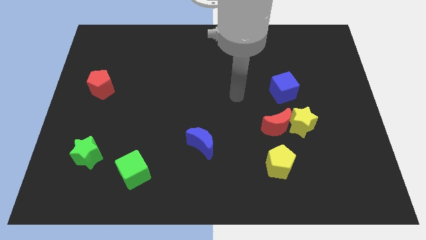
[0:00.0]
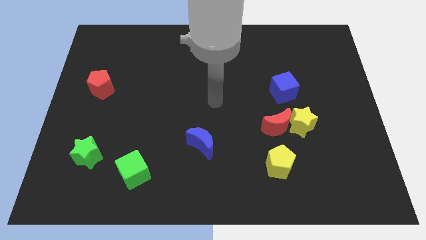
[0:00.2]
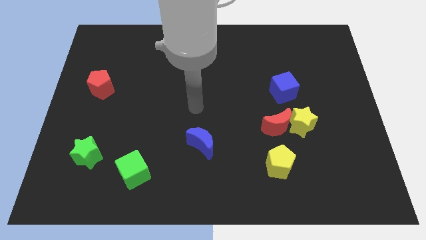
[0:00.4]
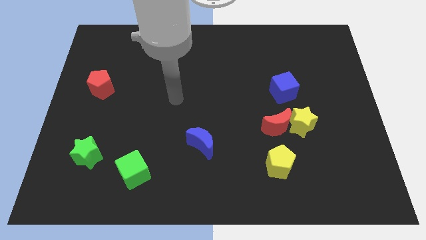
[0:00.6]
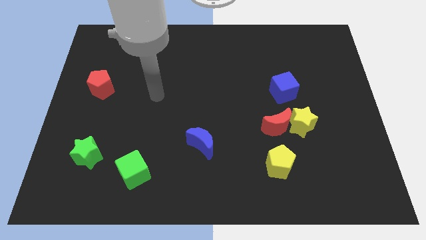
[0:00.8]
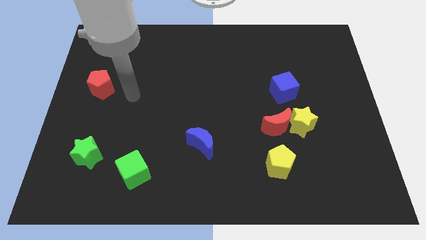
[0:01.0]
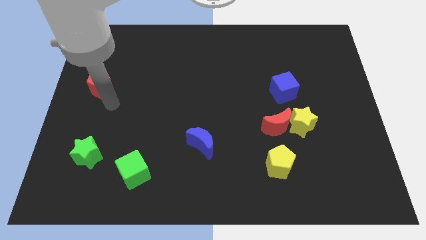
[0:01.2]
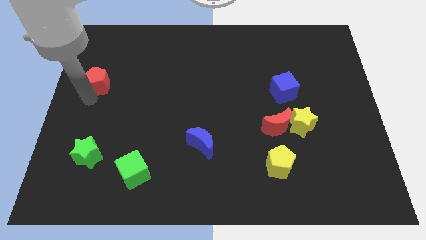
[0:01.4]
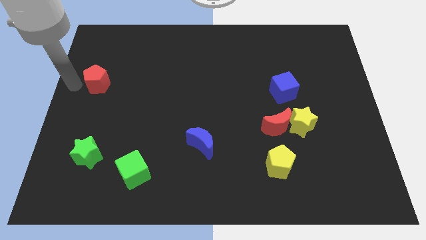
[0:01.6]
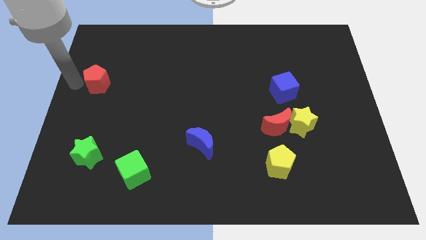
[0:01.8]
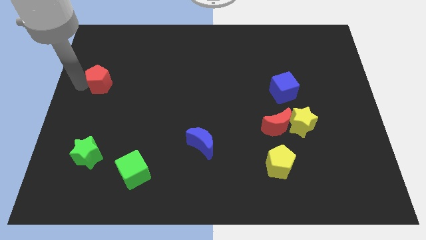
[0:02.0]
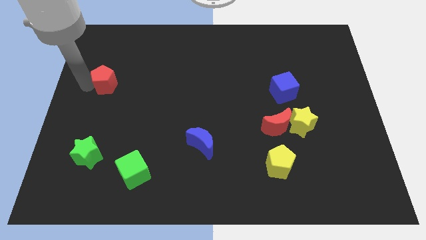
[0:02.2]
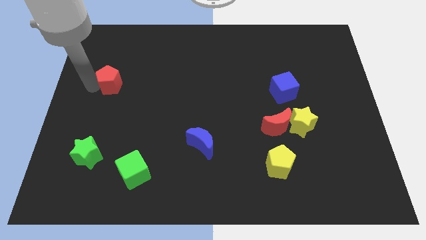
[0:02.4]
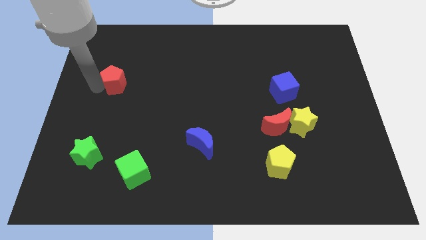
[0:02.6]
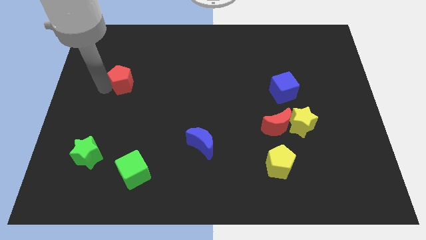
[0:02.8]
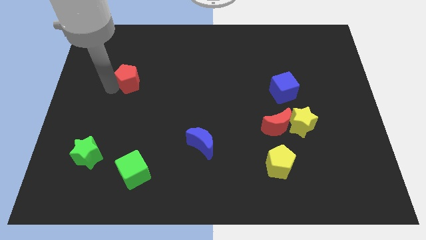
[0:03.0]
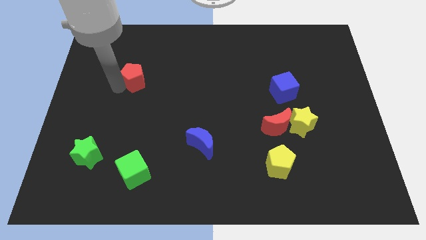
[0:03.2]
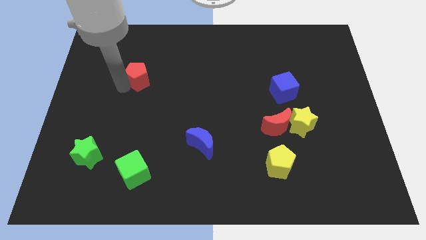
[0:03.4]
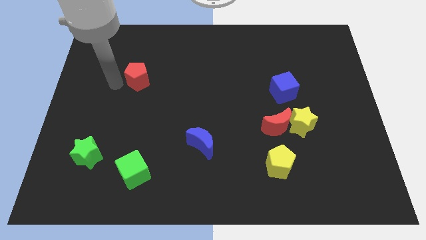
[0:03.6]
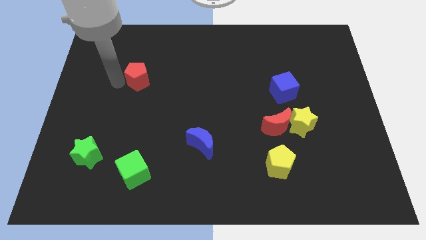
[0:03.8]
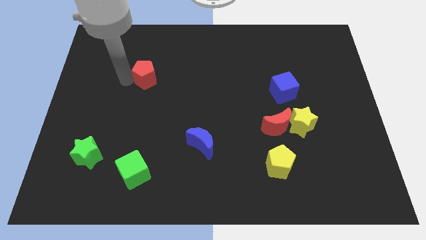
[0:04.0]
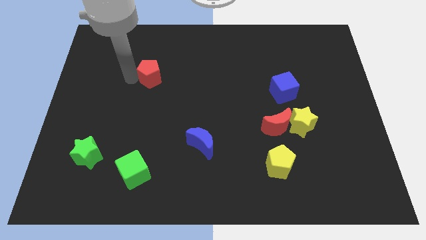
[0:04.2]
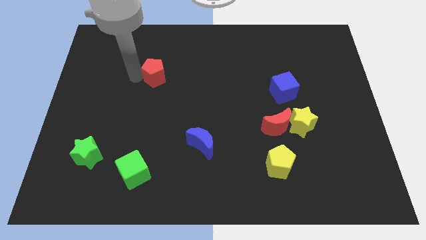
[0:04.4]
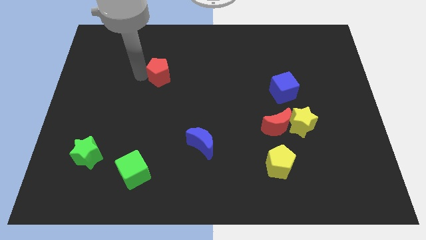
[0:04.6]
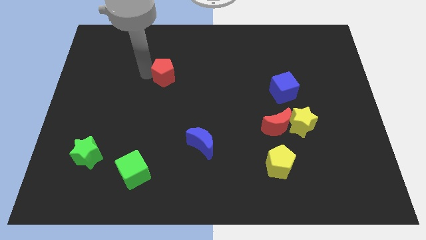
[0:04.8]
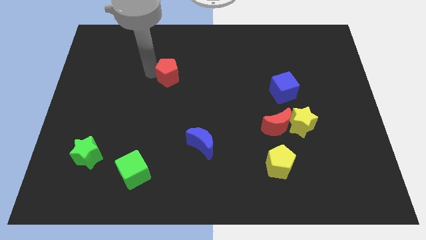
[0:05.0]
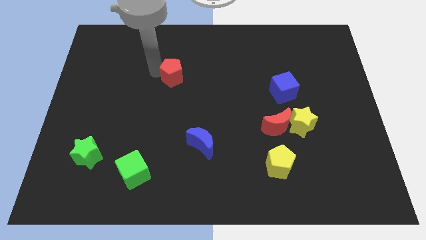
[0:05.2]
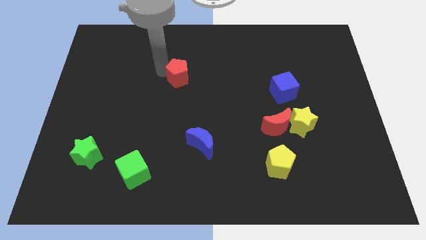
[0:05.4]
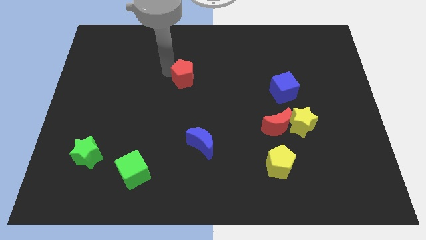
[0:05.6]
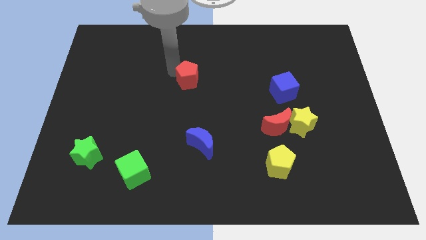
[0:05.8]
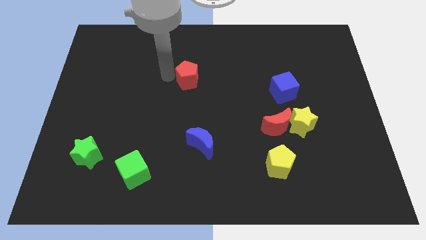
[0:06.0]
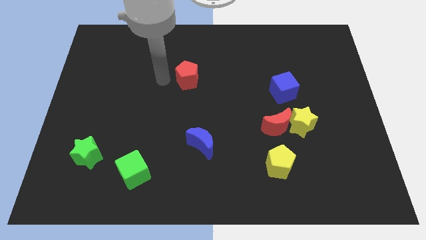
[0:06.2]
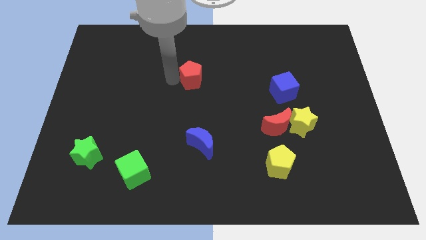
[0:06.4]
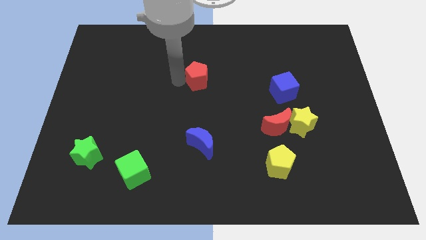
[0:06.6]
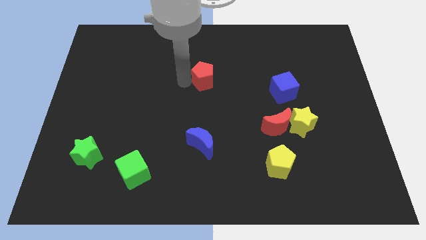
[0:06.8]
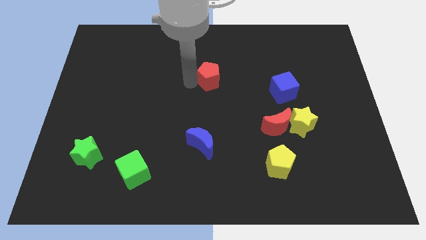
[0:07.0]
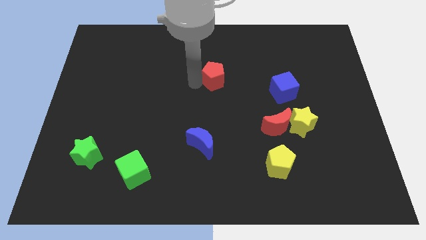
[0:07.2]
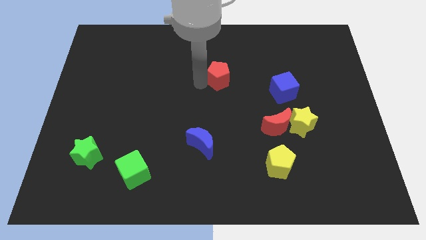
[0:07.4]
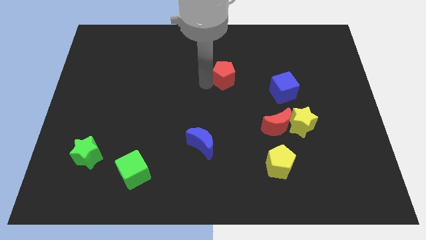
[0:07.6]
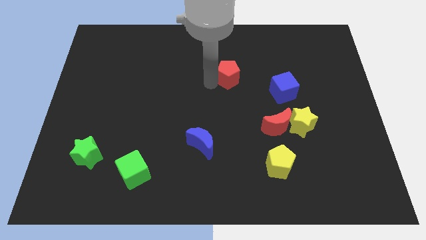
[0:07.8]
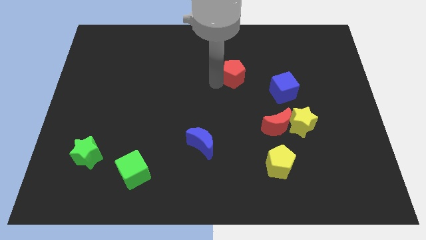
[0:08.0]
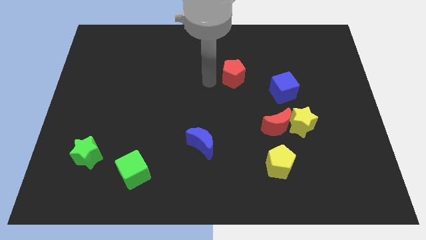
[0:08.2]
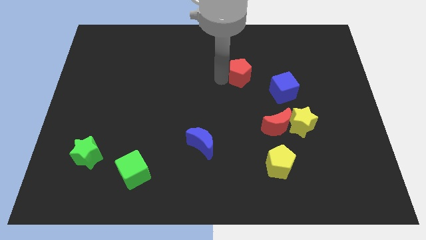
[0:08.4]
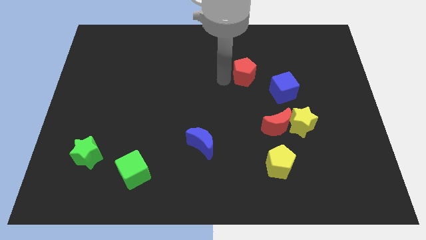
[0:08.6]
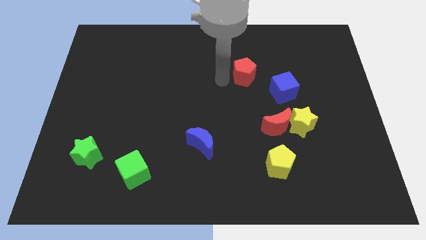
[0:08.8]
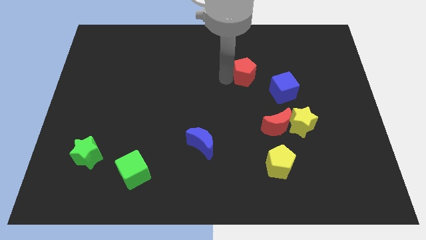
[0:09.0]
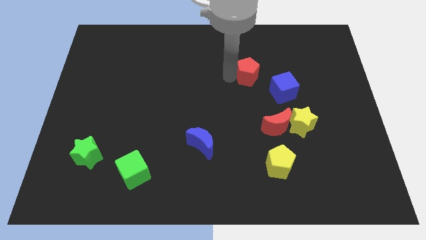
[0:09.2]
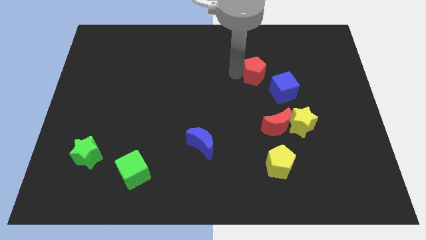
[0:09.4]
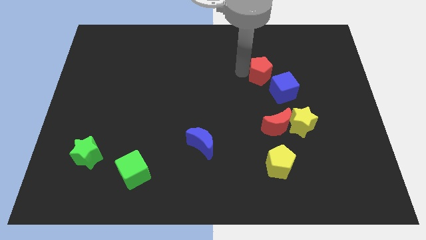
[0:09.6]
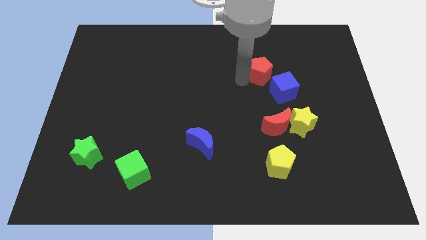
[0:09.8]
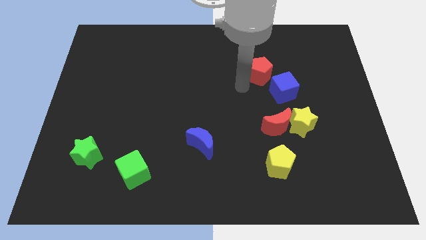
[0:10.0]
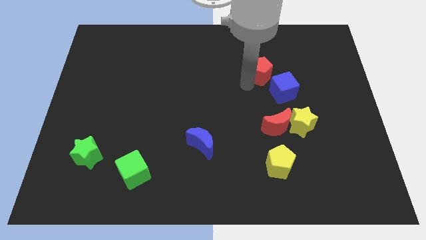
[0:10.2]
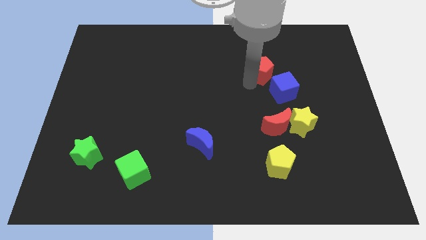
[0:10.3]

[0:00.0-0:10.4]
push the red pentagon to the top side of the blue cube

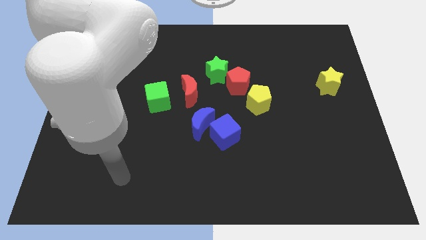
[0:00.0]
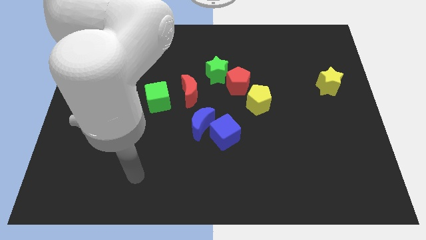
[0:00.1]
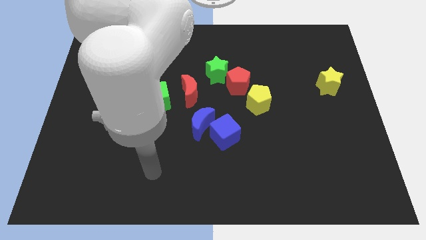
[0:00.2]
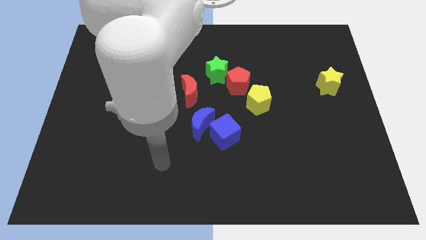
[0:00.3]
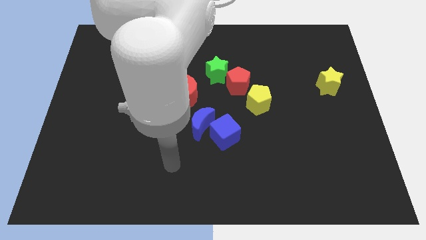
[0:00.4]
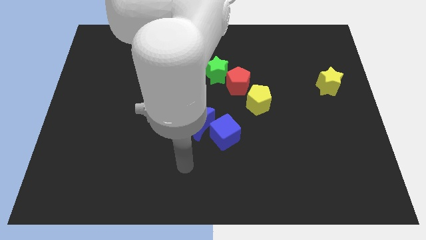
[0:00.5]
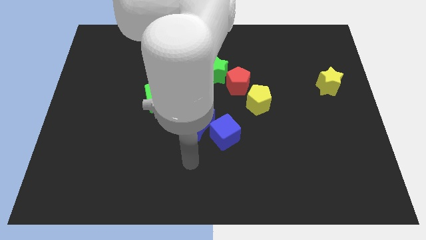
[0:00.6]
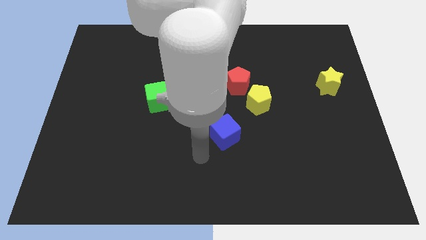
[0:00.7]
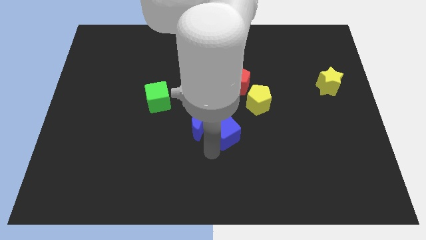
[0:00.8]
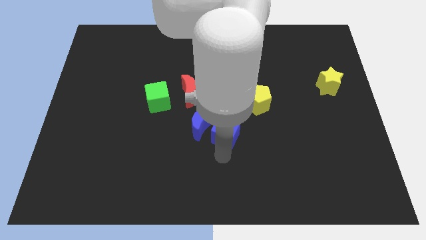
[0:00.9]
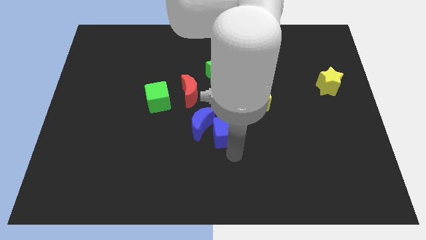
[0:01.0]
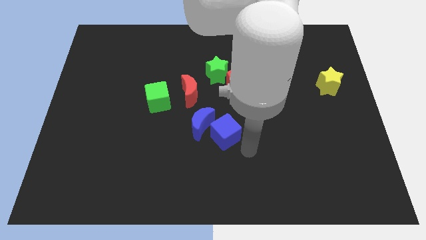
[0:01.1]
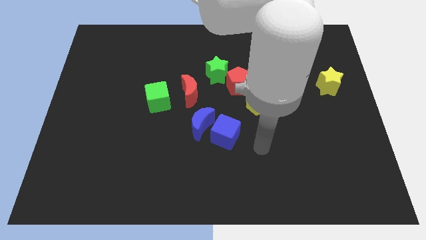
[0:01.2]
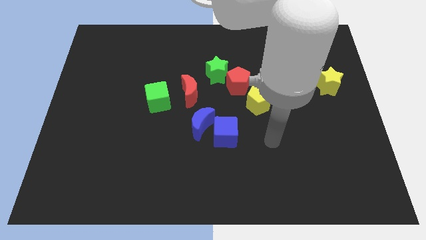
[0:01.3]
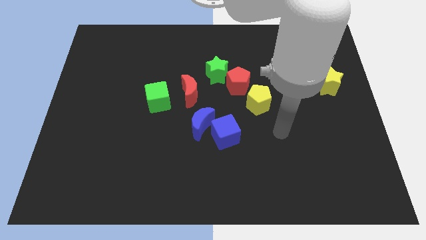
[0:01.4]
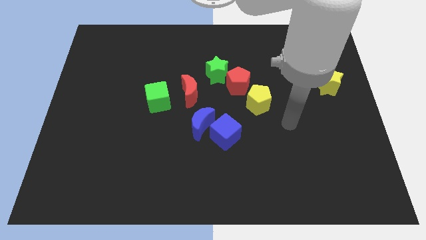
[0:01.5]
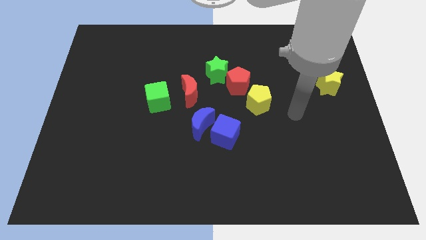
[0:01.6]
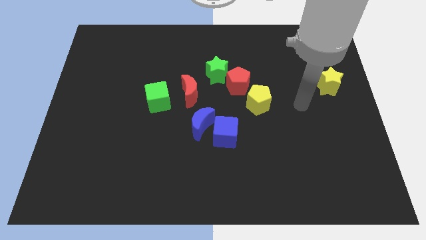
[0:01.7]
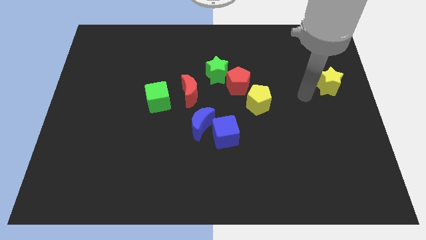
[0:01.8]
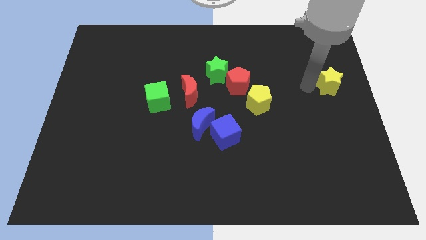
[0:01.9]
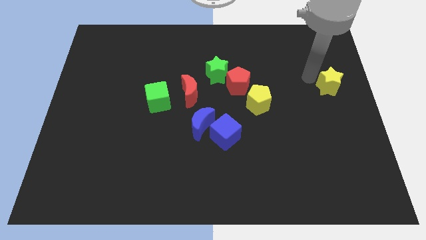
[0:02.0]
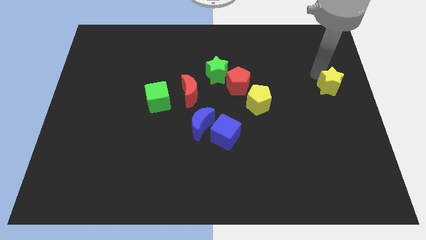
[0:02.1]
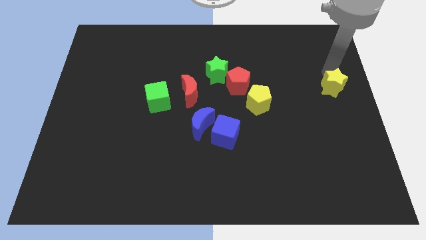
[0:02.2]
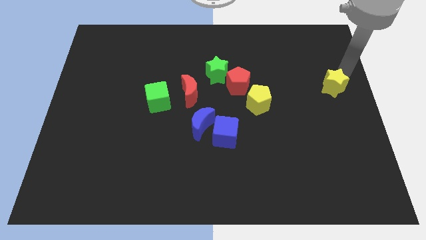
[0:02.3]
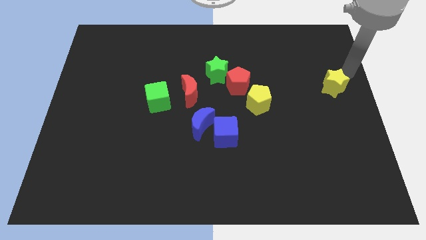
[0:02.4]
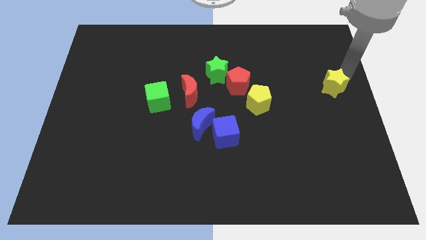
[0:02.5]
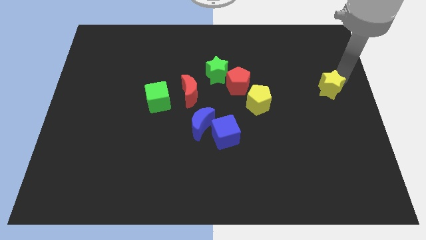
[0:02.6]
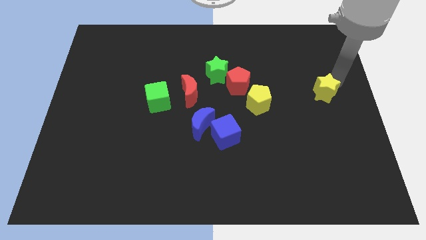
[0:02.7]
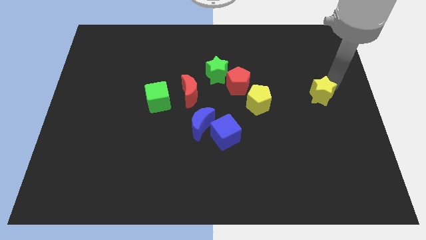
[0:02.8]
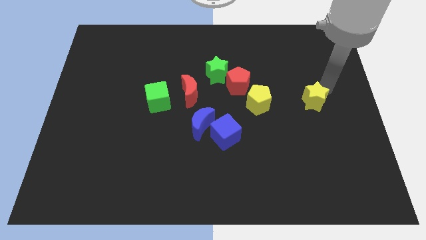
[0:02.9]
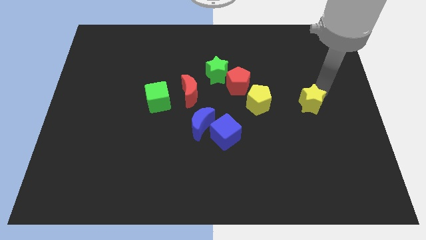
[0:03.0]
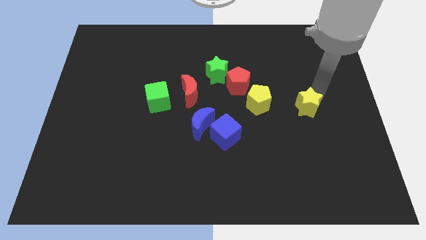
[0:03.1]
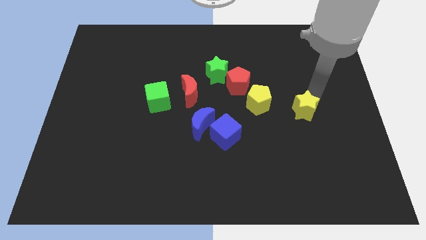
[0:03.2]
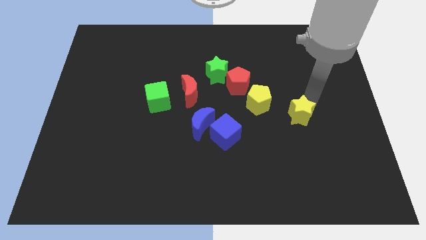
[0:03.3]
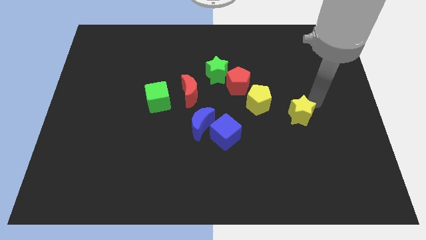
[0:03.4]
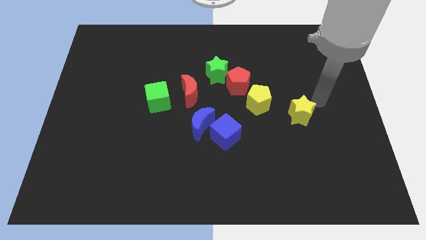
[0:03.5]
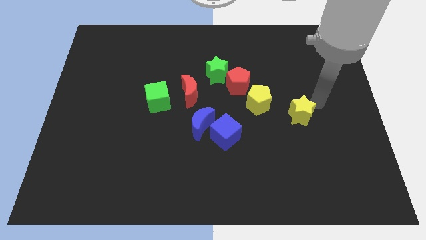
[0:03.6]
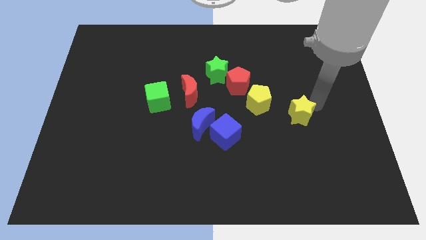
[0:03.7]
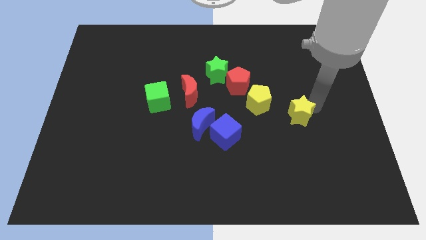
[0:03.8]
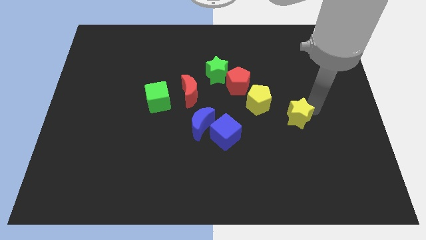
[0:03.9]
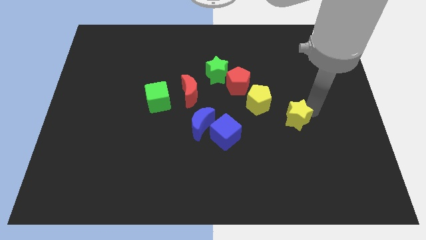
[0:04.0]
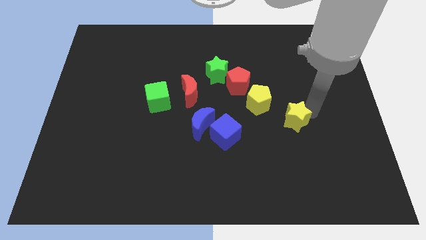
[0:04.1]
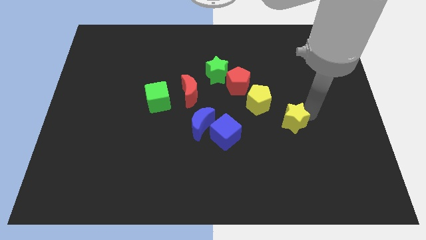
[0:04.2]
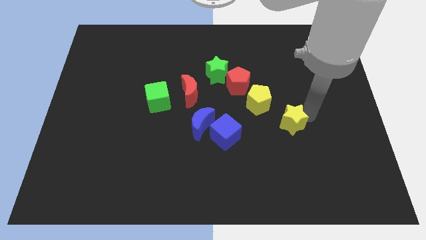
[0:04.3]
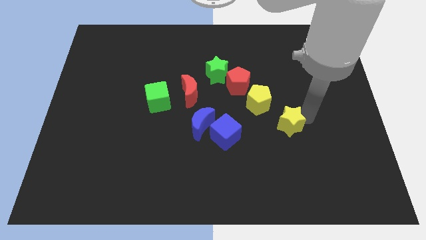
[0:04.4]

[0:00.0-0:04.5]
slide the yellow star to the right of the blue cube
